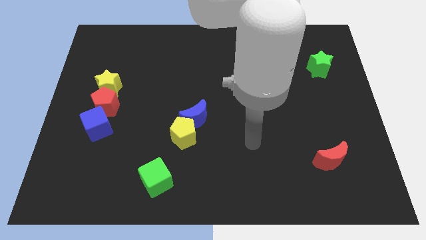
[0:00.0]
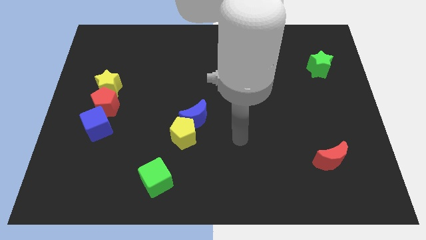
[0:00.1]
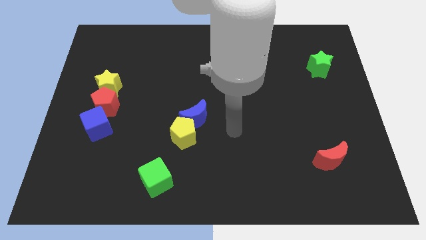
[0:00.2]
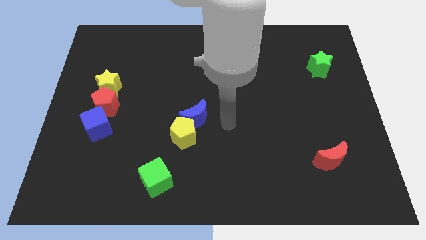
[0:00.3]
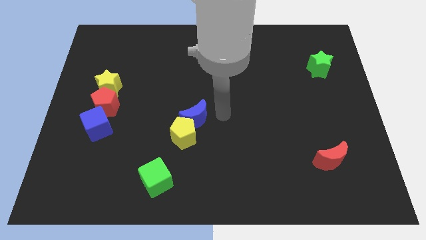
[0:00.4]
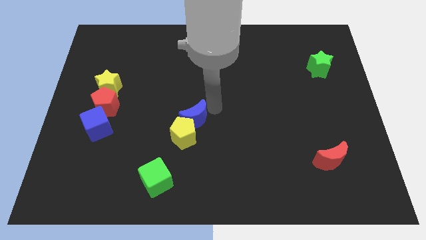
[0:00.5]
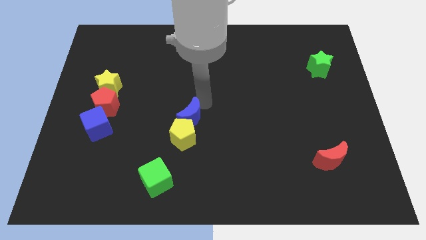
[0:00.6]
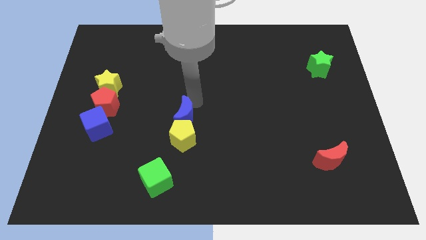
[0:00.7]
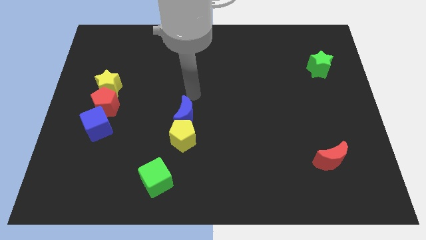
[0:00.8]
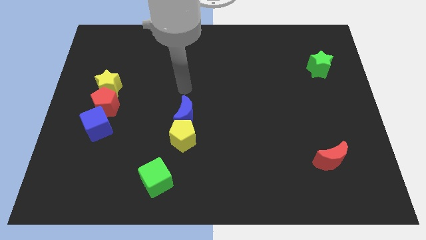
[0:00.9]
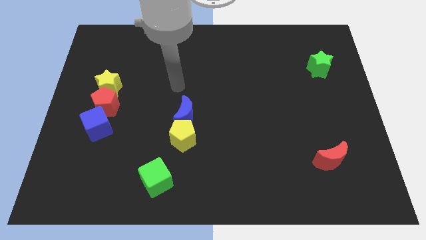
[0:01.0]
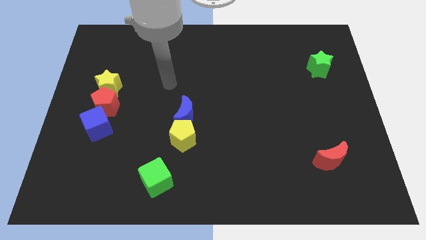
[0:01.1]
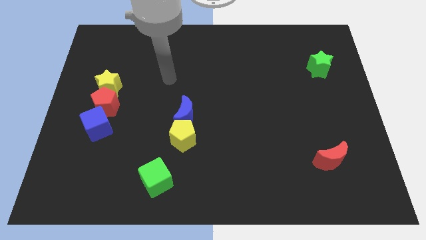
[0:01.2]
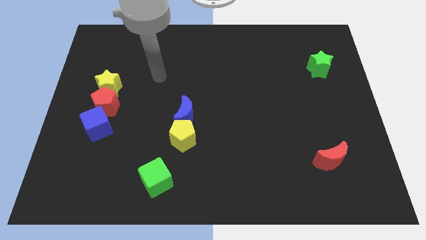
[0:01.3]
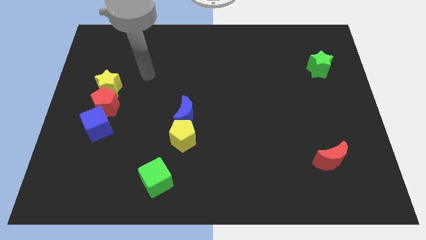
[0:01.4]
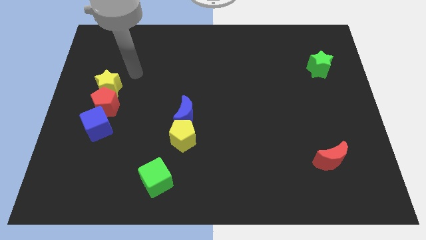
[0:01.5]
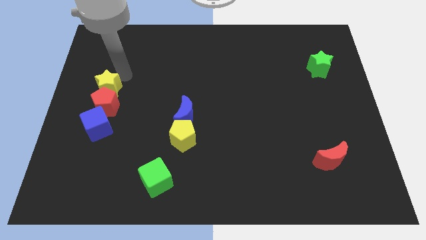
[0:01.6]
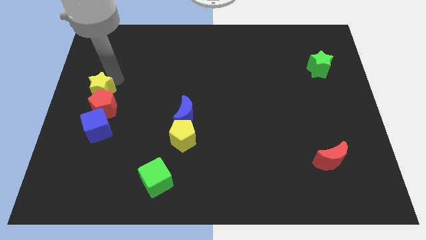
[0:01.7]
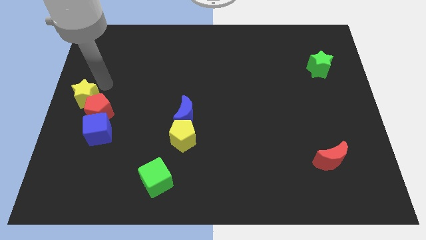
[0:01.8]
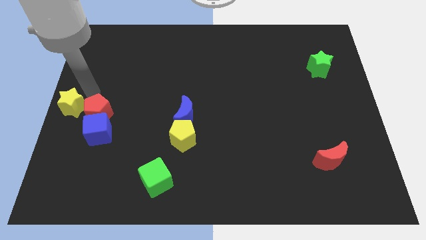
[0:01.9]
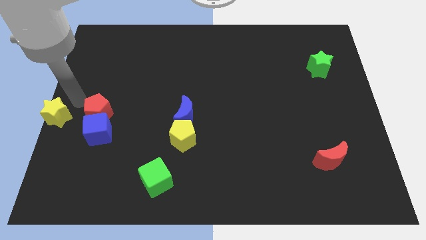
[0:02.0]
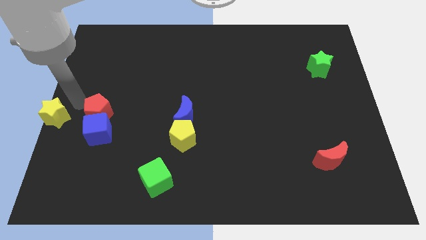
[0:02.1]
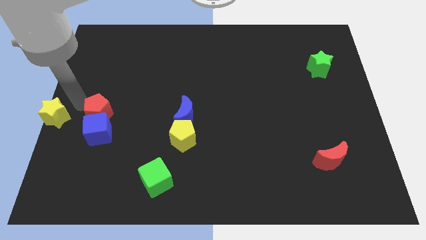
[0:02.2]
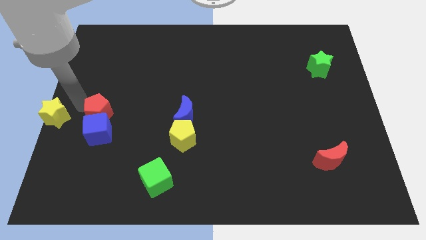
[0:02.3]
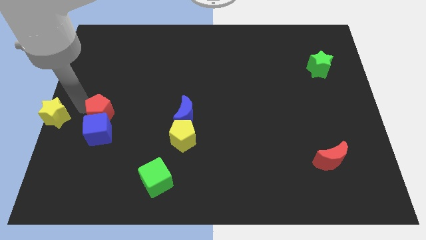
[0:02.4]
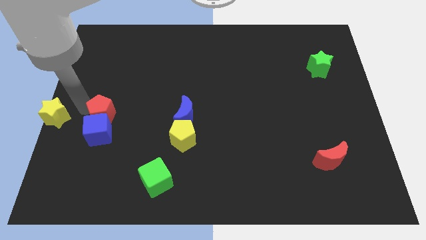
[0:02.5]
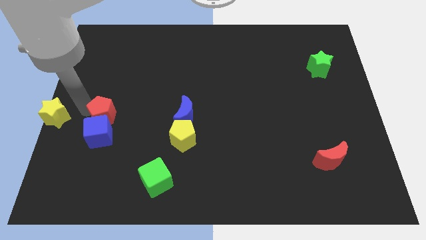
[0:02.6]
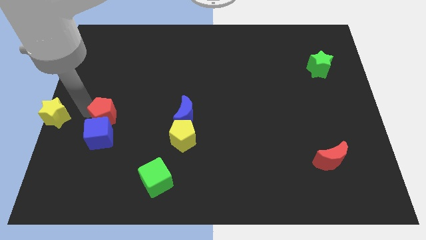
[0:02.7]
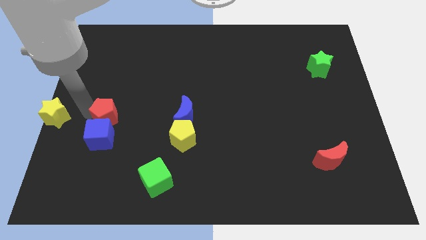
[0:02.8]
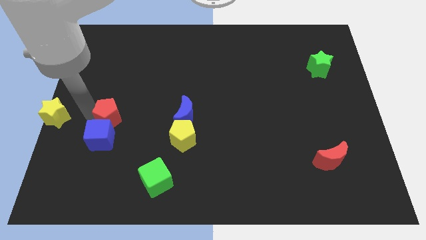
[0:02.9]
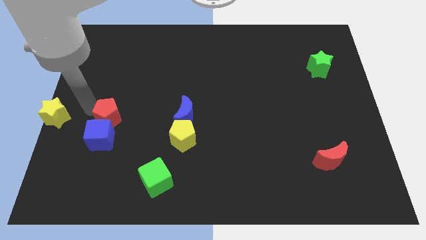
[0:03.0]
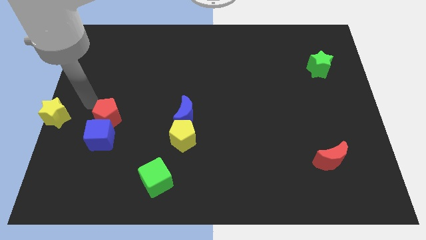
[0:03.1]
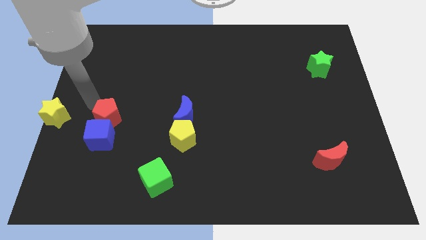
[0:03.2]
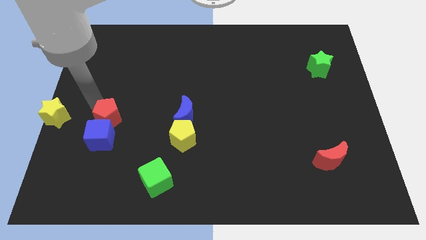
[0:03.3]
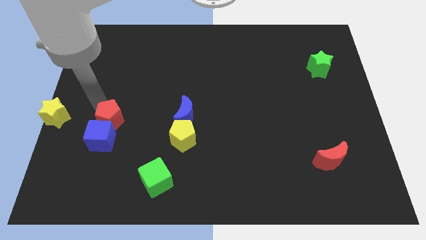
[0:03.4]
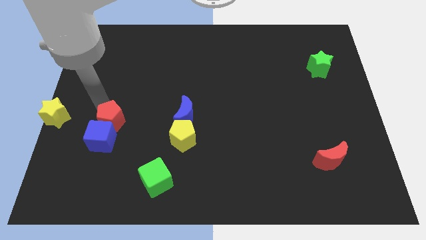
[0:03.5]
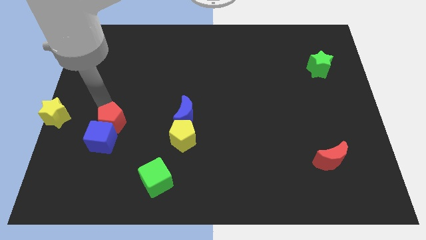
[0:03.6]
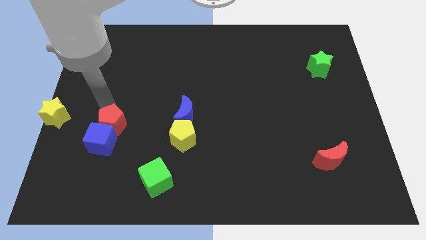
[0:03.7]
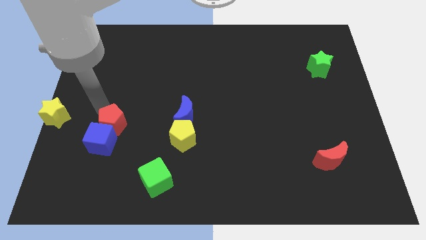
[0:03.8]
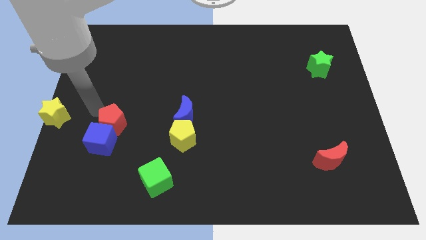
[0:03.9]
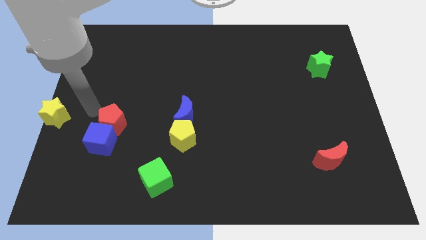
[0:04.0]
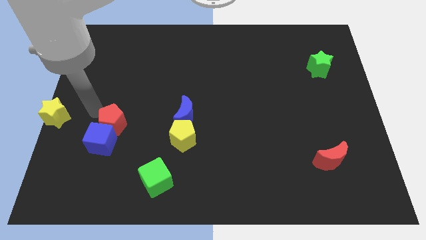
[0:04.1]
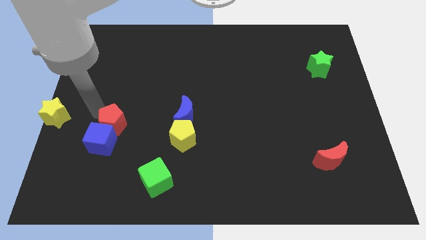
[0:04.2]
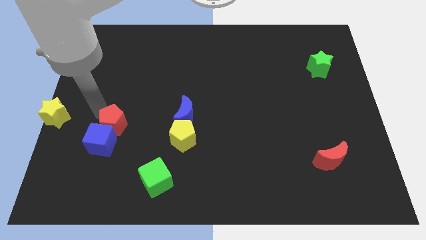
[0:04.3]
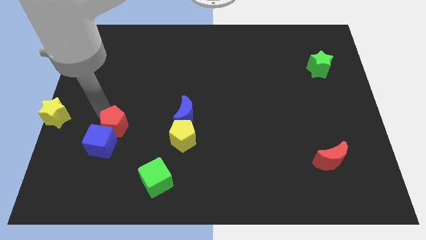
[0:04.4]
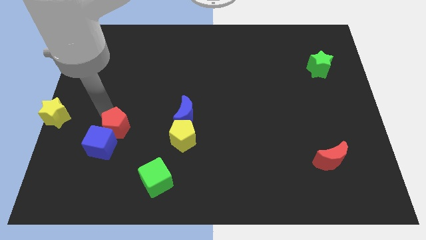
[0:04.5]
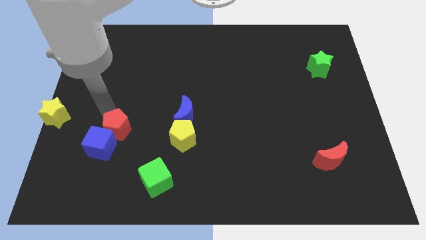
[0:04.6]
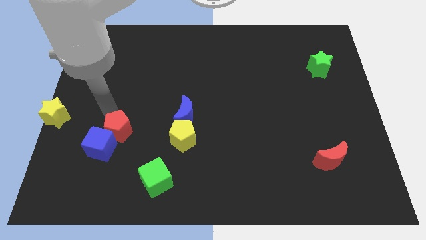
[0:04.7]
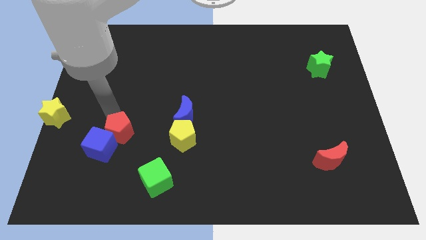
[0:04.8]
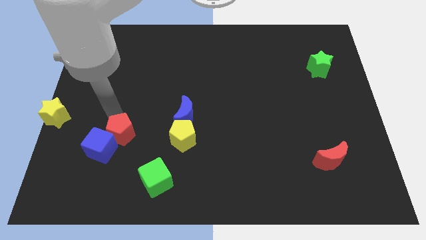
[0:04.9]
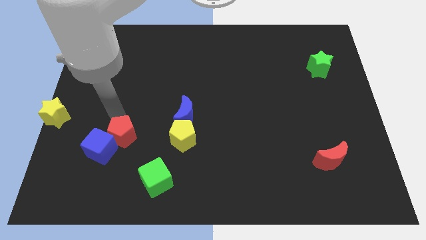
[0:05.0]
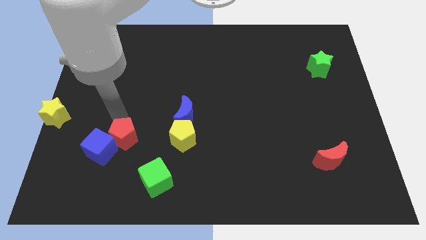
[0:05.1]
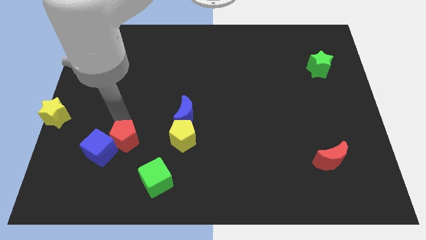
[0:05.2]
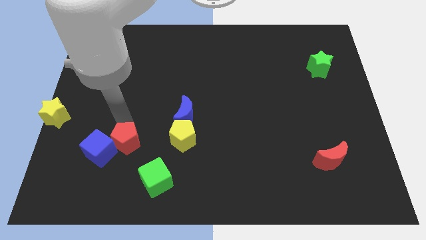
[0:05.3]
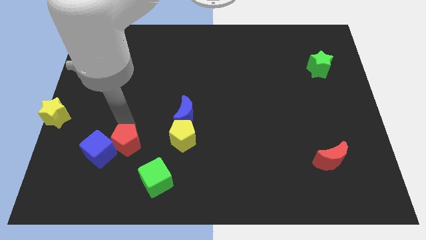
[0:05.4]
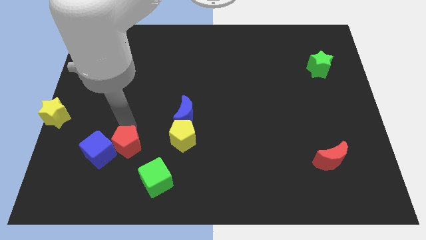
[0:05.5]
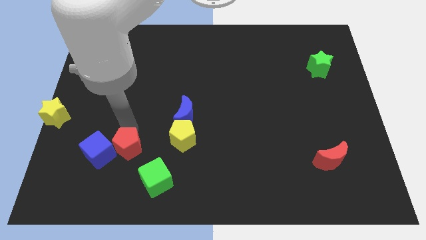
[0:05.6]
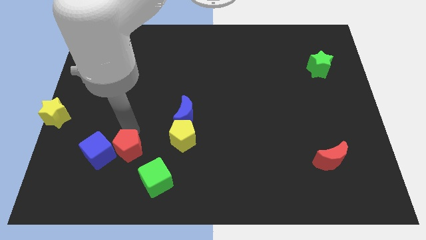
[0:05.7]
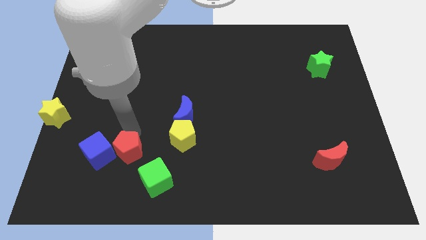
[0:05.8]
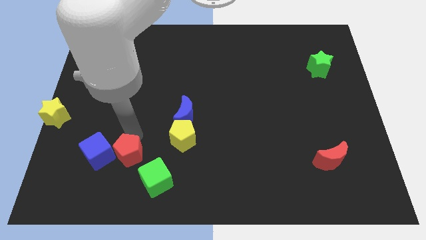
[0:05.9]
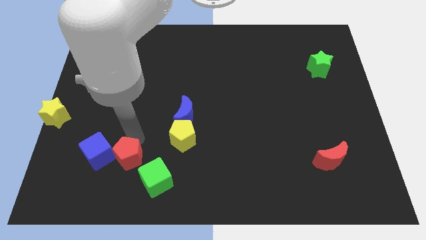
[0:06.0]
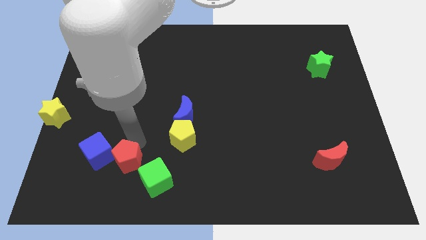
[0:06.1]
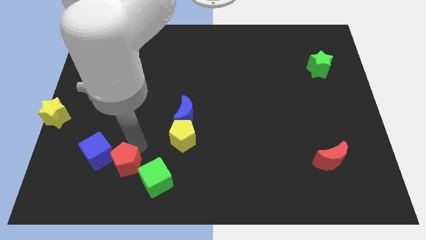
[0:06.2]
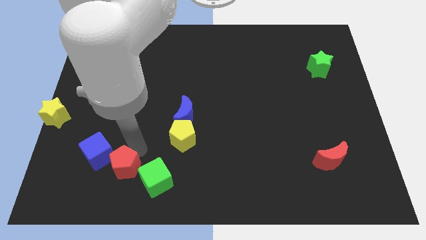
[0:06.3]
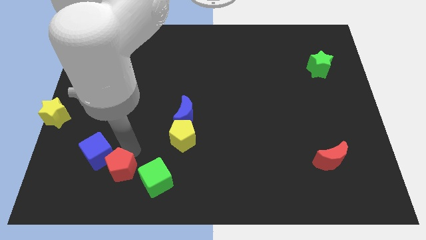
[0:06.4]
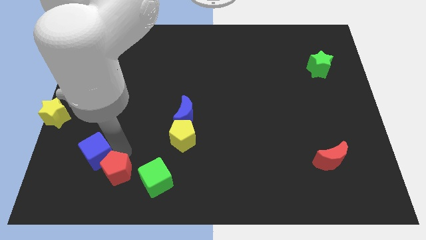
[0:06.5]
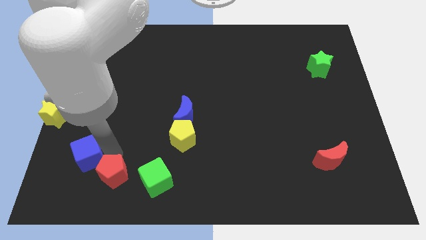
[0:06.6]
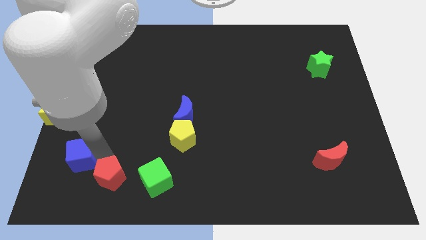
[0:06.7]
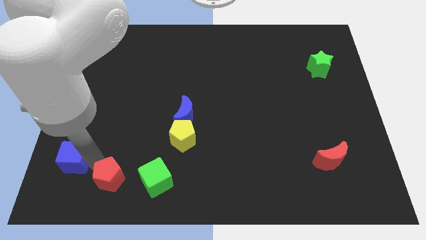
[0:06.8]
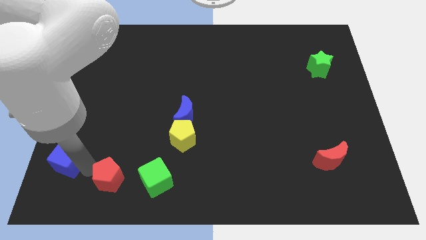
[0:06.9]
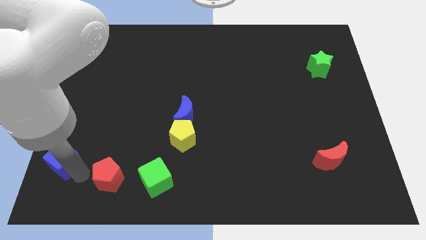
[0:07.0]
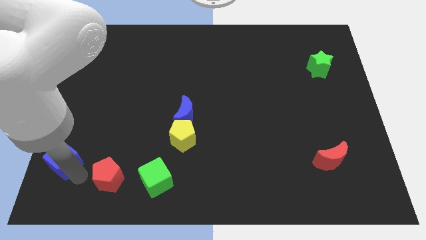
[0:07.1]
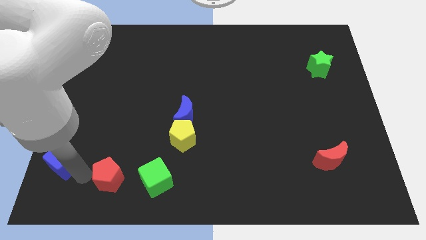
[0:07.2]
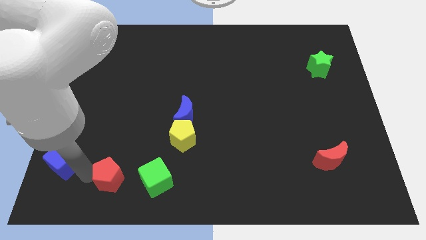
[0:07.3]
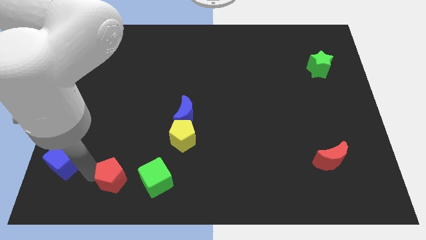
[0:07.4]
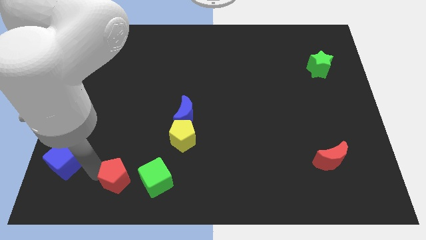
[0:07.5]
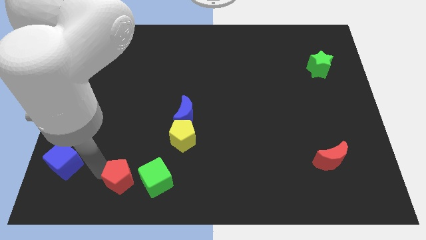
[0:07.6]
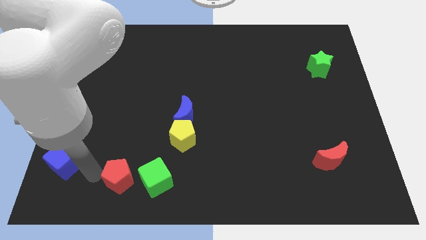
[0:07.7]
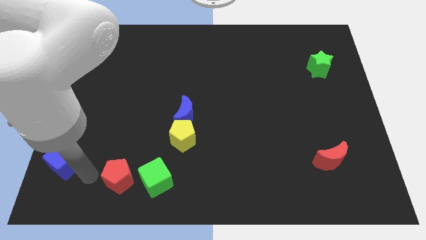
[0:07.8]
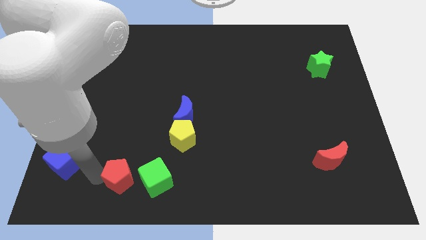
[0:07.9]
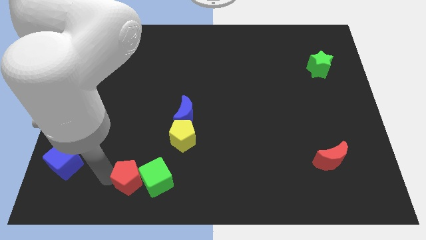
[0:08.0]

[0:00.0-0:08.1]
move the red pentagon close to the green cube
